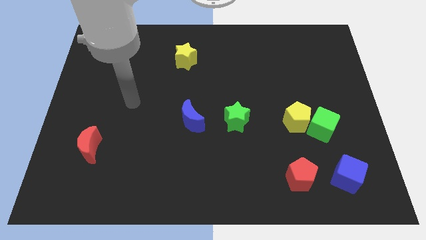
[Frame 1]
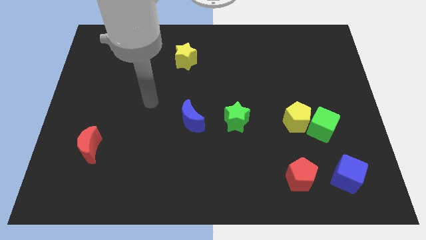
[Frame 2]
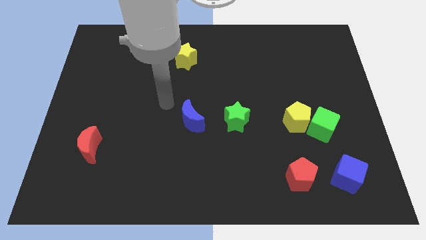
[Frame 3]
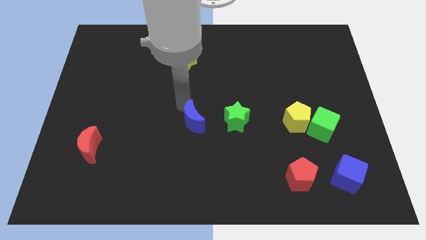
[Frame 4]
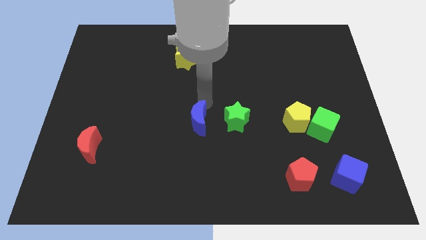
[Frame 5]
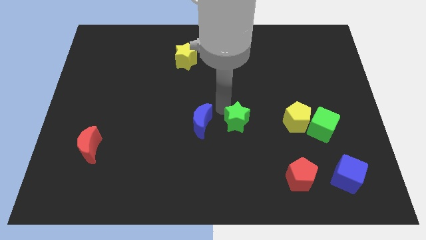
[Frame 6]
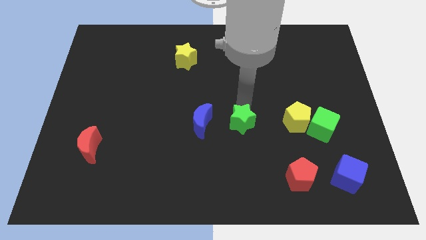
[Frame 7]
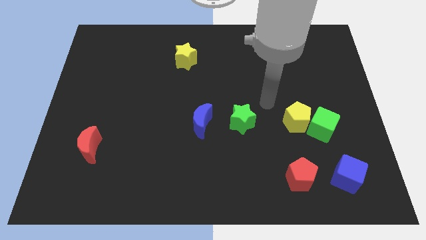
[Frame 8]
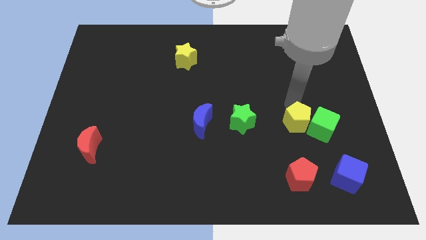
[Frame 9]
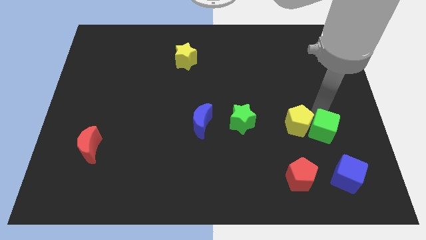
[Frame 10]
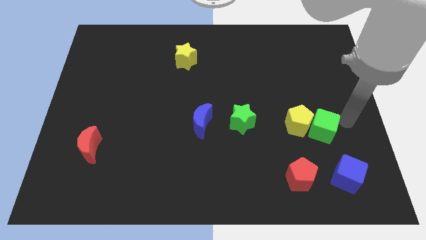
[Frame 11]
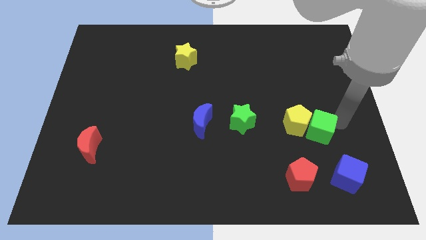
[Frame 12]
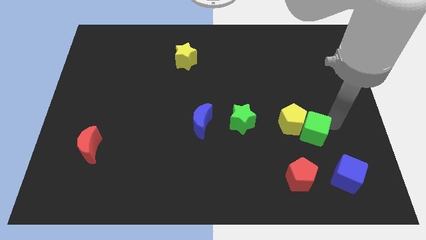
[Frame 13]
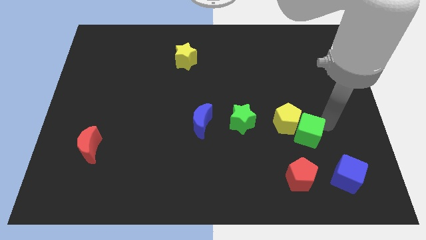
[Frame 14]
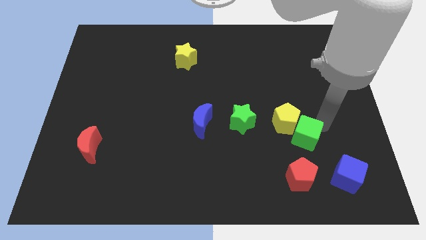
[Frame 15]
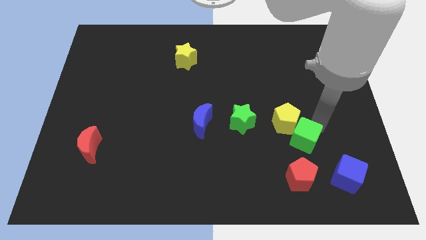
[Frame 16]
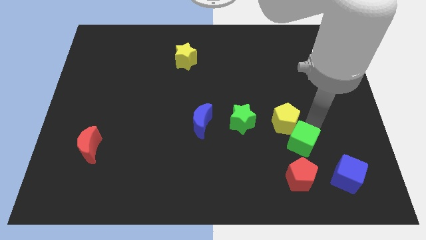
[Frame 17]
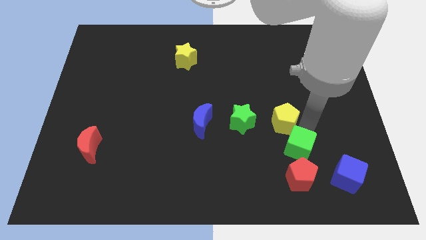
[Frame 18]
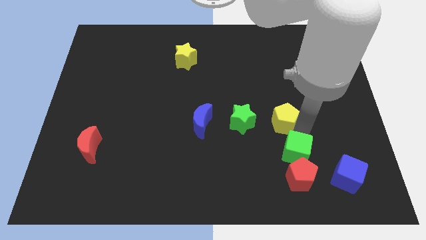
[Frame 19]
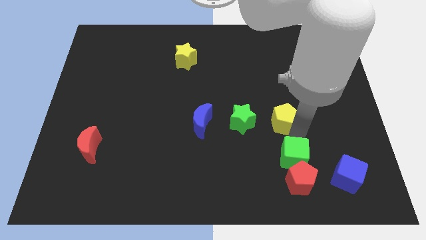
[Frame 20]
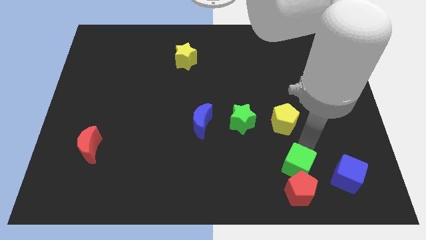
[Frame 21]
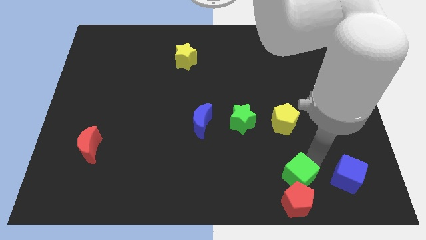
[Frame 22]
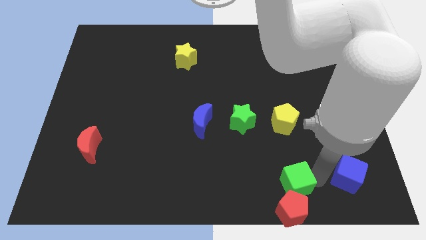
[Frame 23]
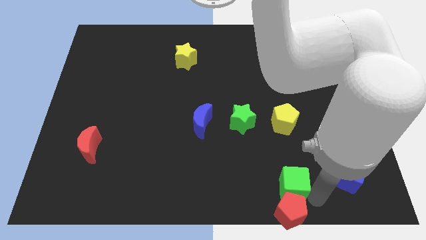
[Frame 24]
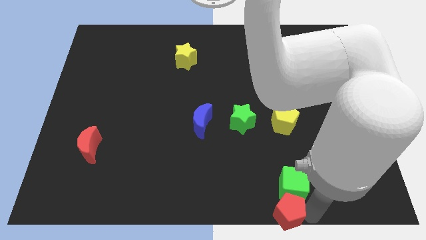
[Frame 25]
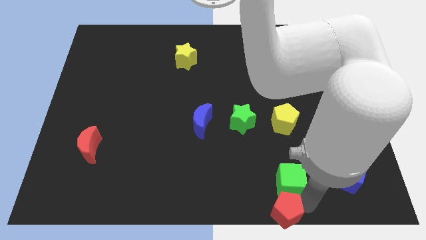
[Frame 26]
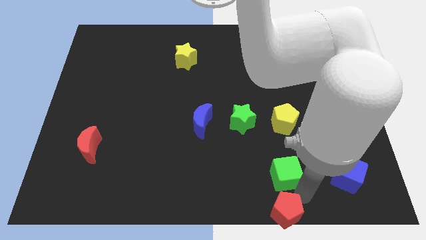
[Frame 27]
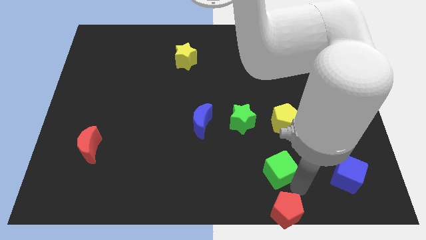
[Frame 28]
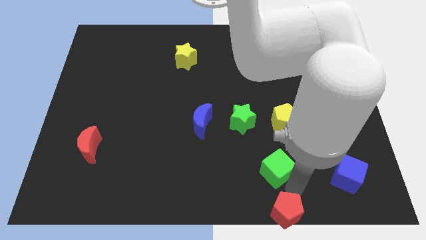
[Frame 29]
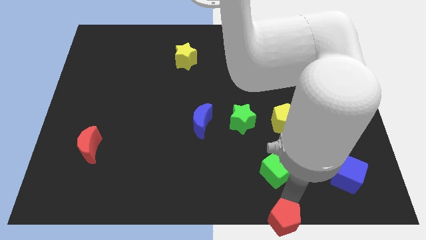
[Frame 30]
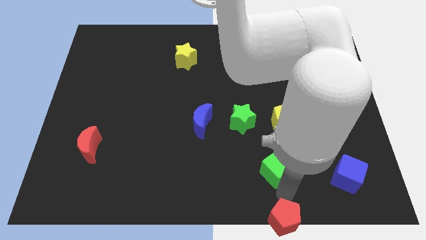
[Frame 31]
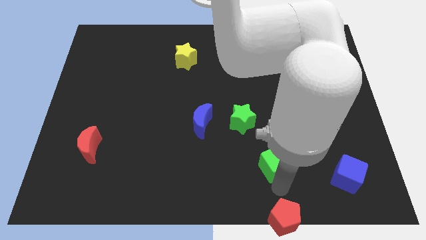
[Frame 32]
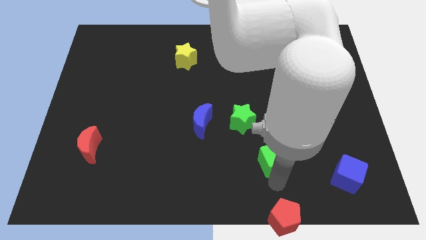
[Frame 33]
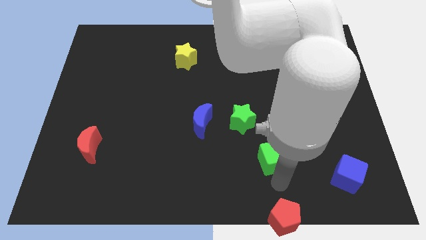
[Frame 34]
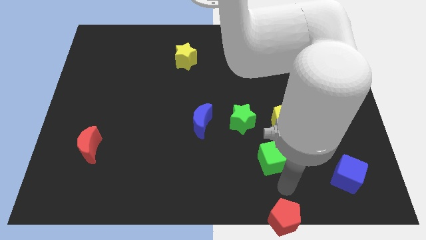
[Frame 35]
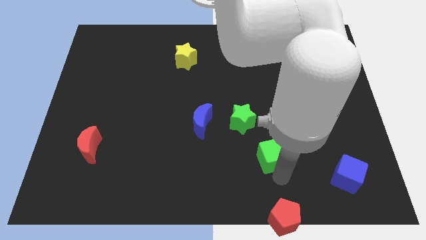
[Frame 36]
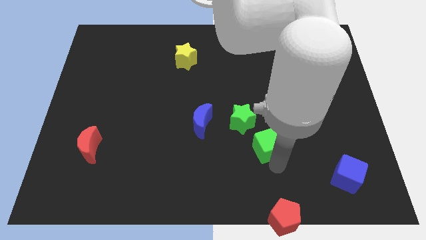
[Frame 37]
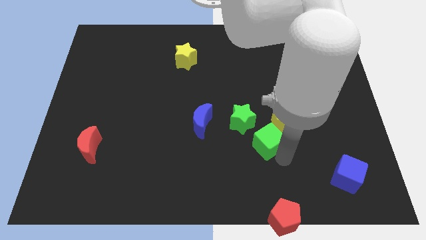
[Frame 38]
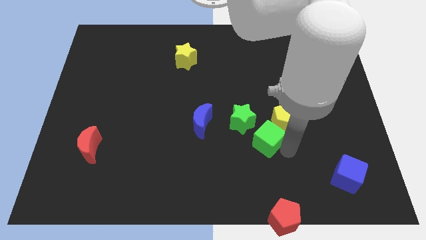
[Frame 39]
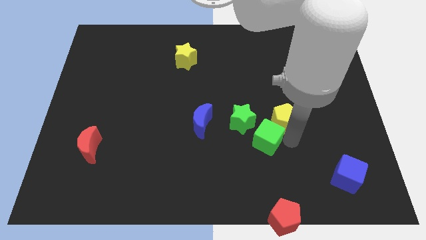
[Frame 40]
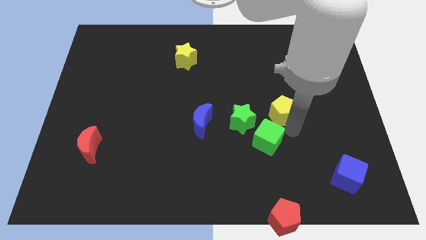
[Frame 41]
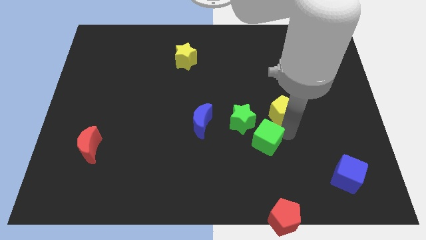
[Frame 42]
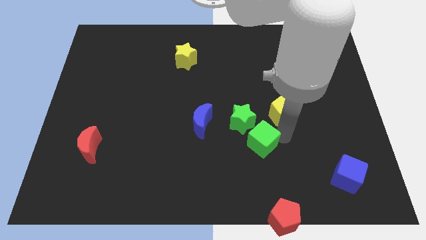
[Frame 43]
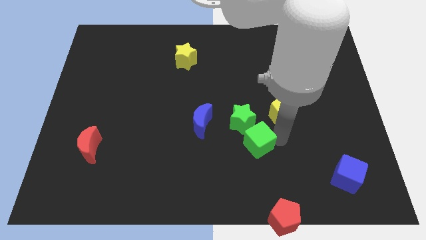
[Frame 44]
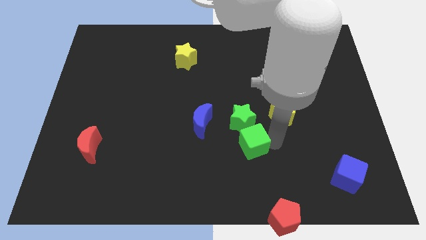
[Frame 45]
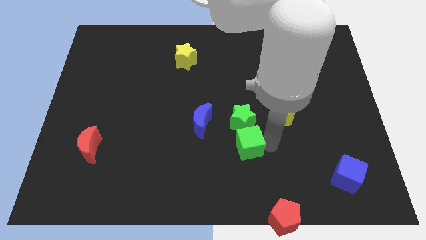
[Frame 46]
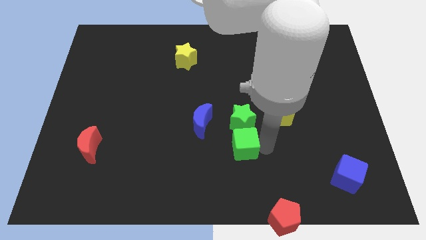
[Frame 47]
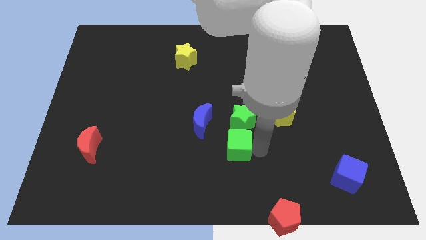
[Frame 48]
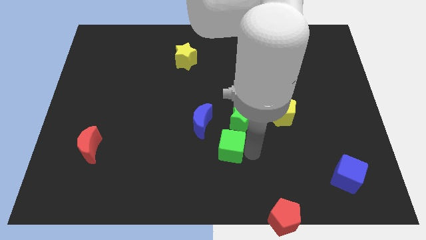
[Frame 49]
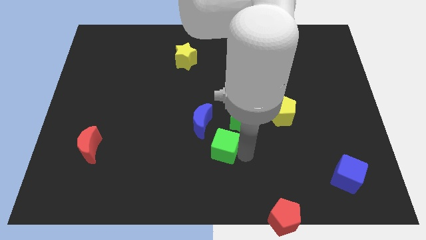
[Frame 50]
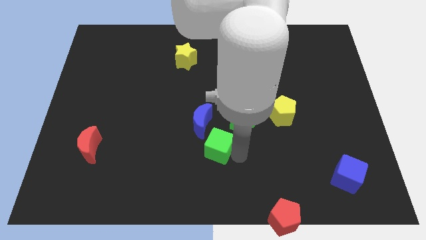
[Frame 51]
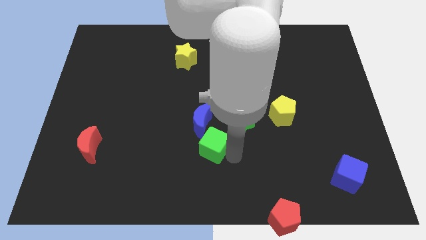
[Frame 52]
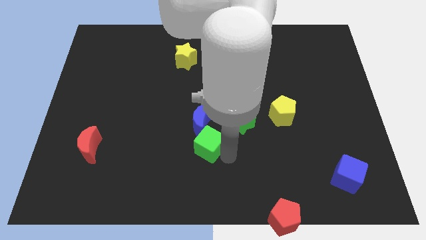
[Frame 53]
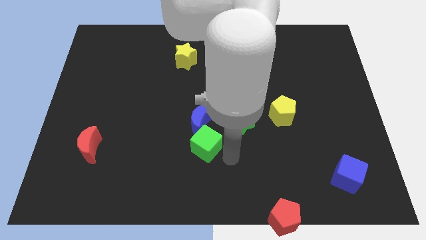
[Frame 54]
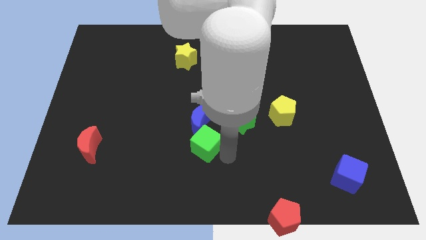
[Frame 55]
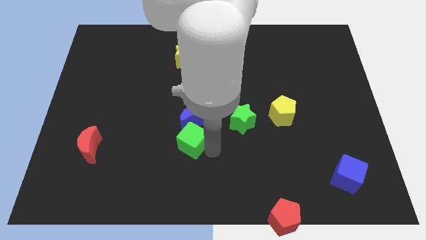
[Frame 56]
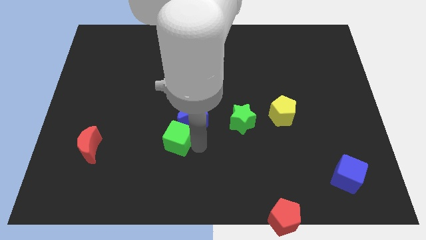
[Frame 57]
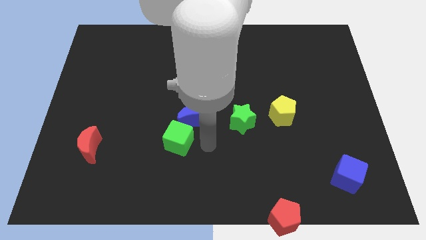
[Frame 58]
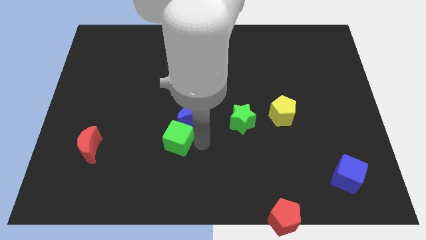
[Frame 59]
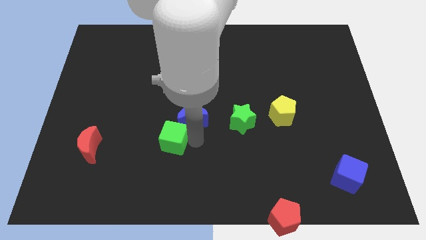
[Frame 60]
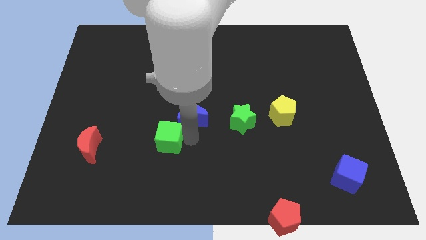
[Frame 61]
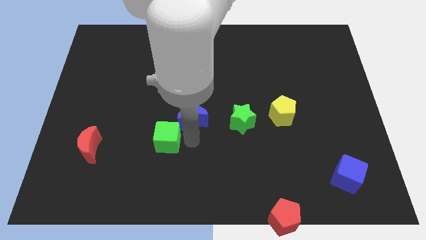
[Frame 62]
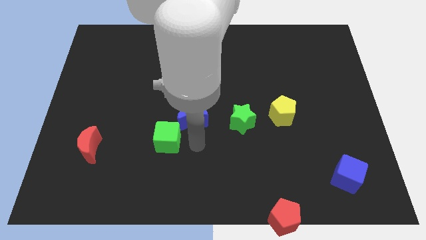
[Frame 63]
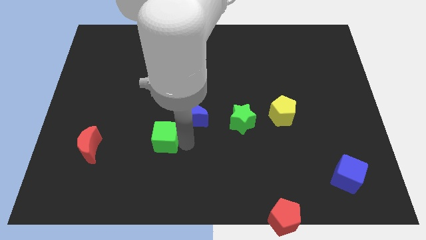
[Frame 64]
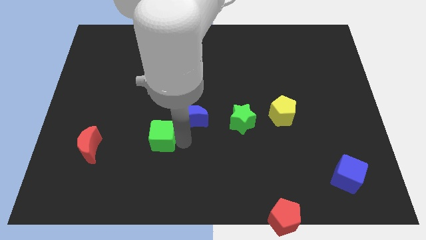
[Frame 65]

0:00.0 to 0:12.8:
put the green cube to the right of the red moon
